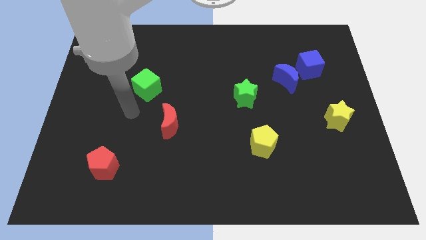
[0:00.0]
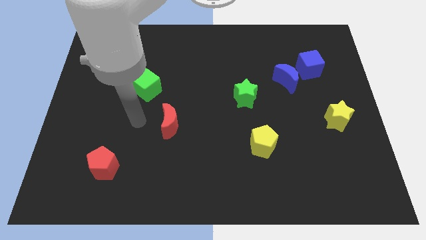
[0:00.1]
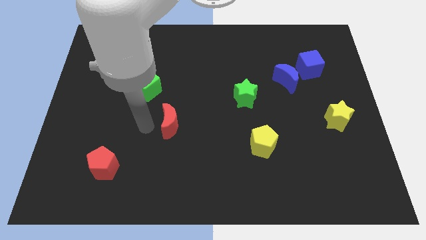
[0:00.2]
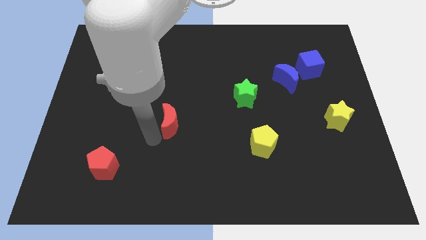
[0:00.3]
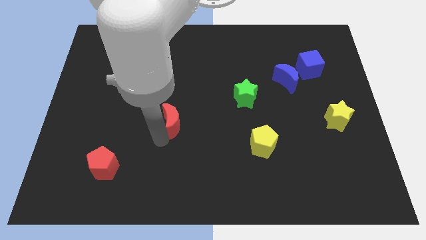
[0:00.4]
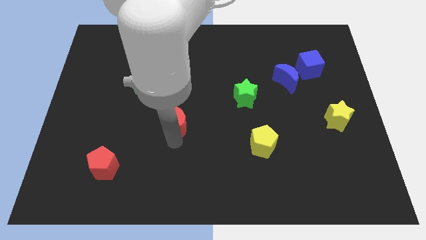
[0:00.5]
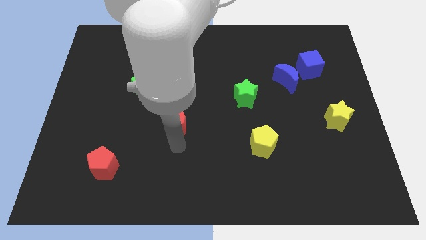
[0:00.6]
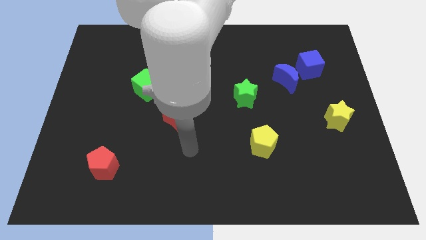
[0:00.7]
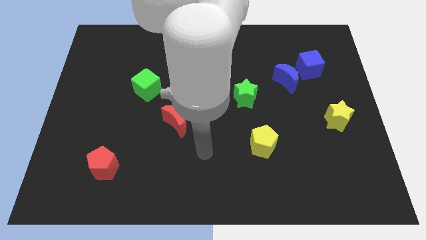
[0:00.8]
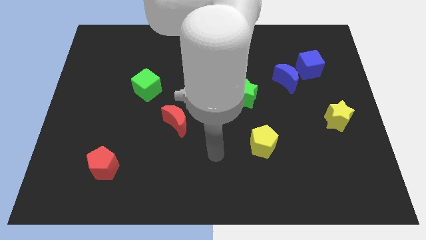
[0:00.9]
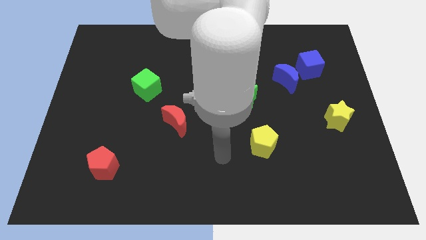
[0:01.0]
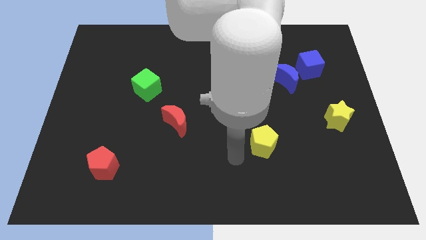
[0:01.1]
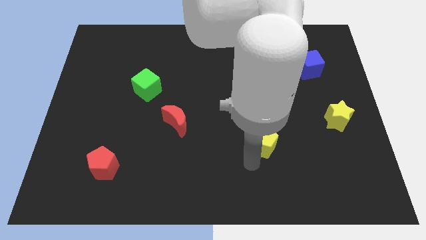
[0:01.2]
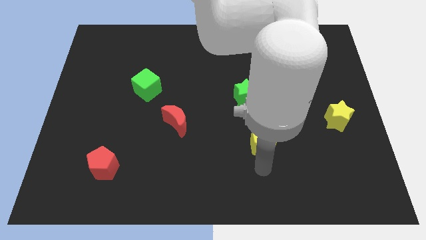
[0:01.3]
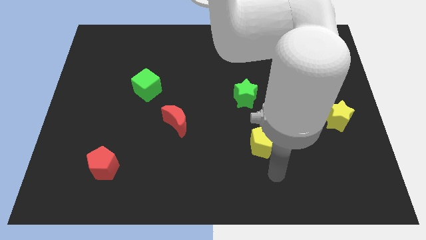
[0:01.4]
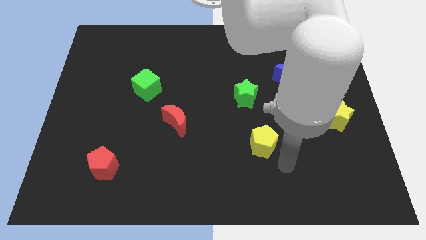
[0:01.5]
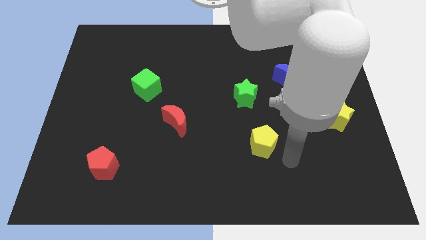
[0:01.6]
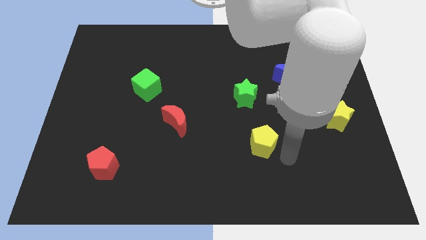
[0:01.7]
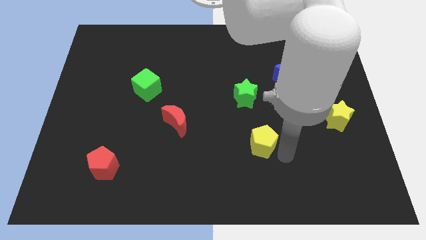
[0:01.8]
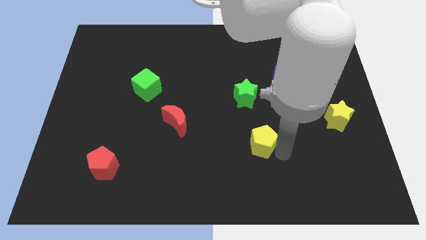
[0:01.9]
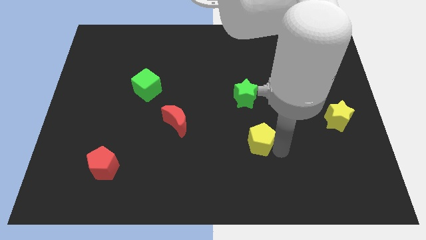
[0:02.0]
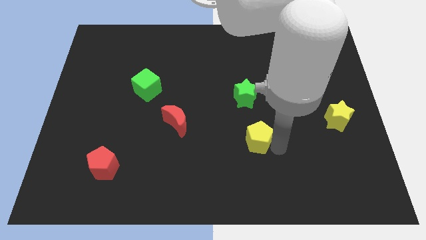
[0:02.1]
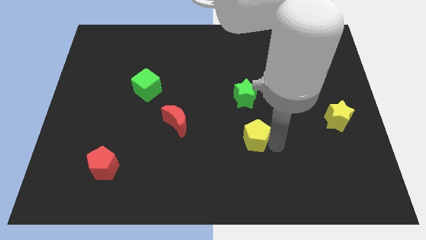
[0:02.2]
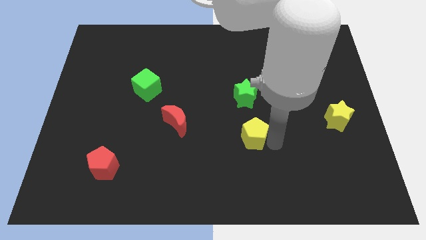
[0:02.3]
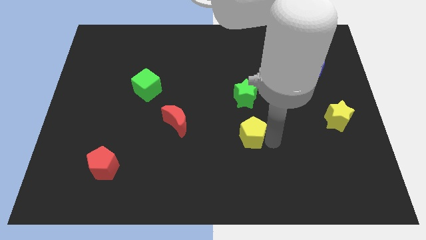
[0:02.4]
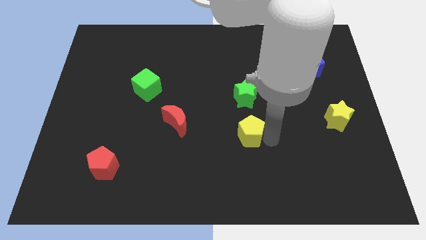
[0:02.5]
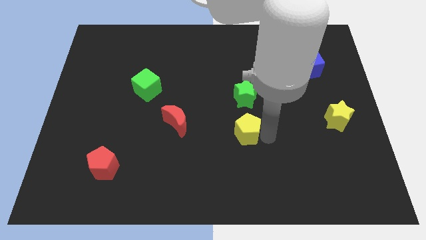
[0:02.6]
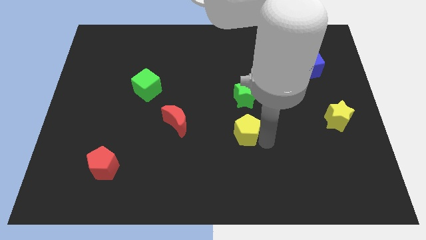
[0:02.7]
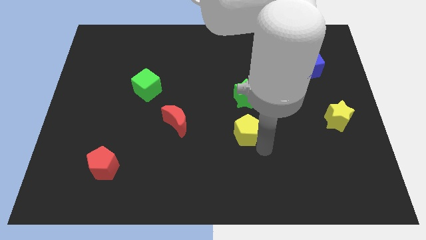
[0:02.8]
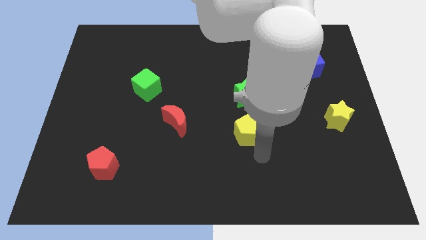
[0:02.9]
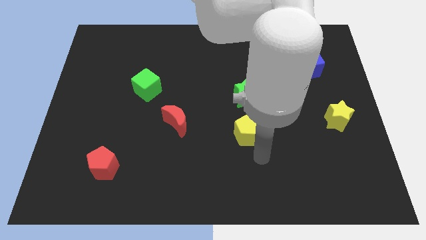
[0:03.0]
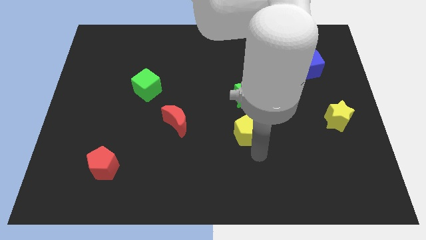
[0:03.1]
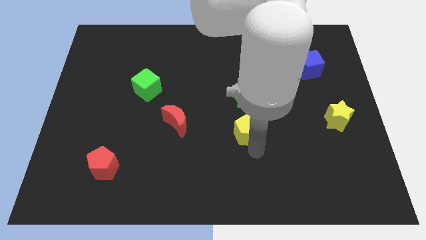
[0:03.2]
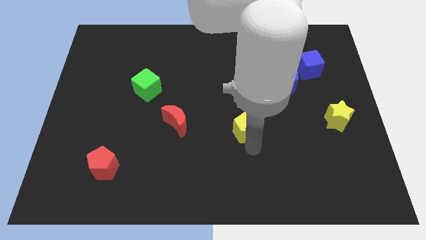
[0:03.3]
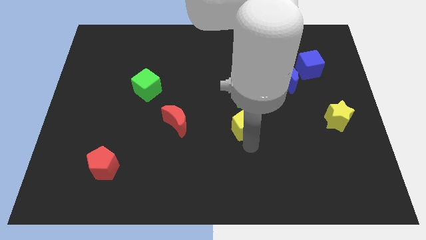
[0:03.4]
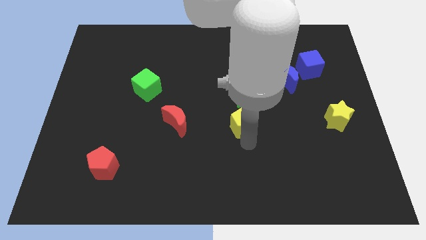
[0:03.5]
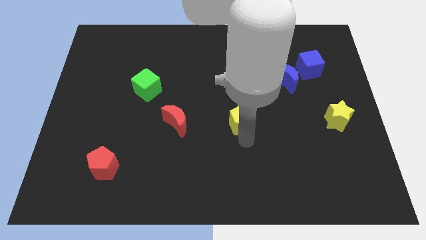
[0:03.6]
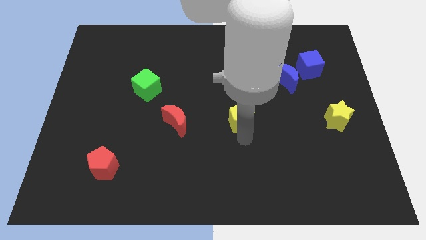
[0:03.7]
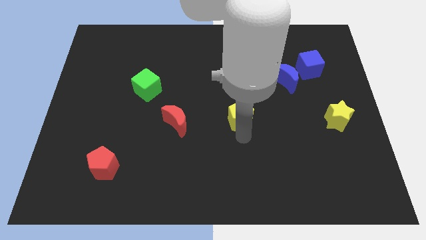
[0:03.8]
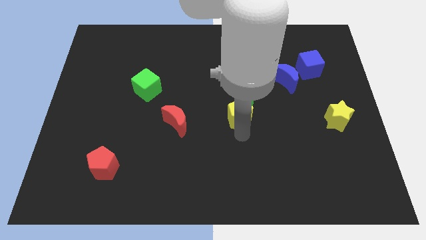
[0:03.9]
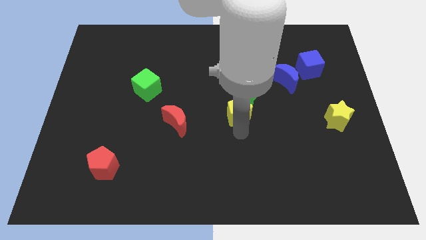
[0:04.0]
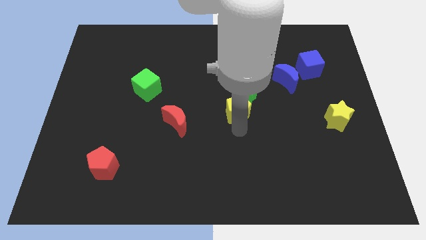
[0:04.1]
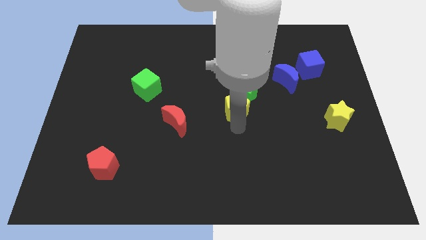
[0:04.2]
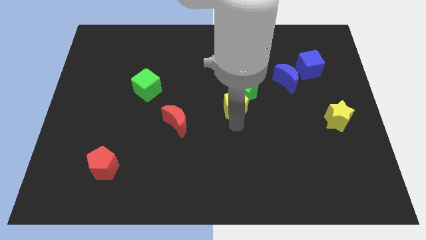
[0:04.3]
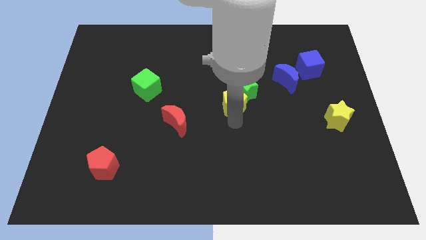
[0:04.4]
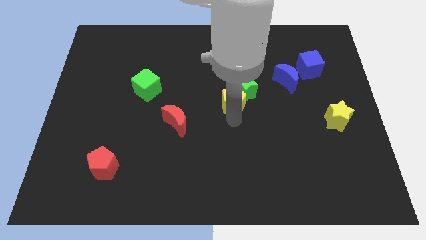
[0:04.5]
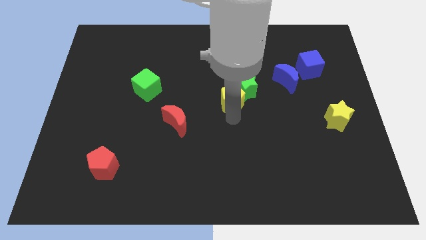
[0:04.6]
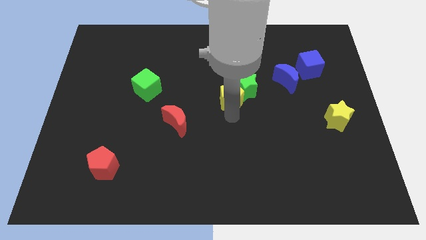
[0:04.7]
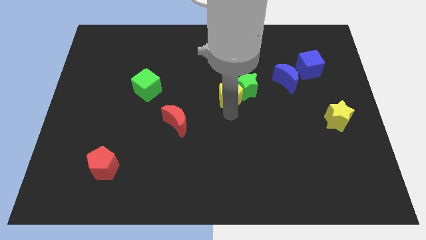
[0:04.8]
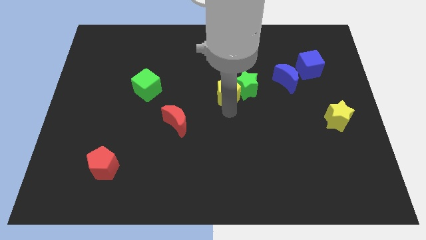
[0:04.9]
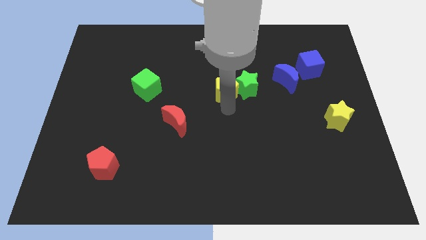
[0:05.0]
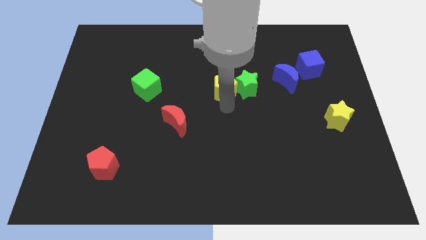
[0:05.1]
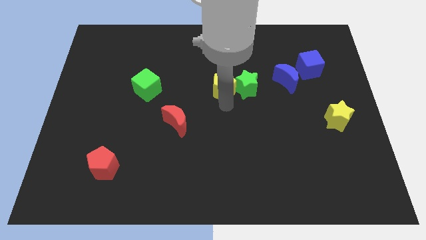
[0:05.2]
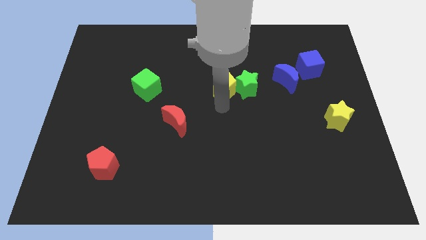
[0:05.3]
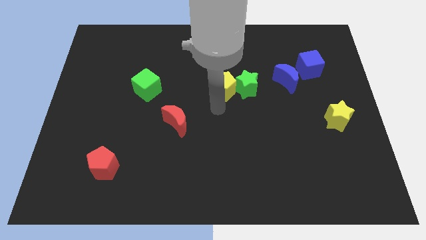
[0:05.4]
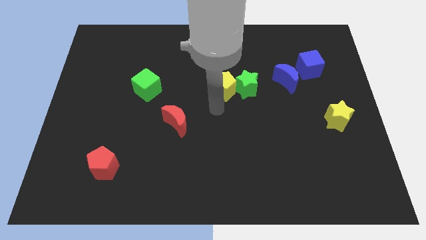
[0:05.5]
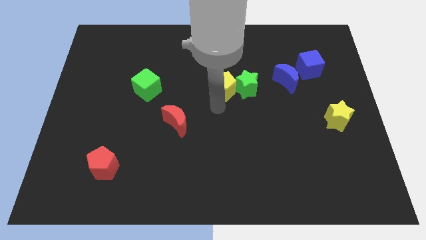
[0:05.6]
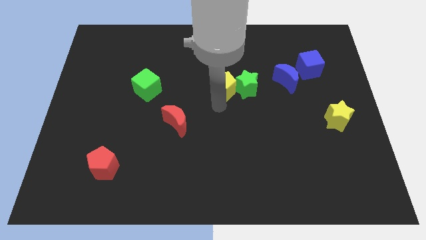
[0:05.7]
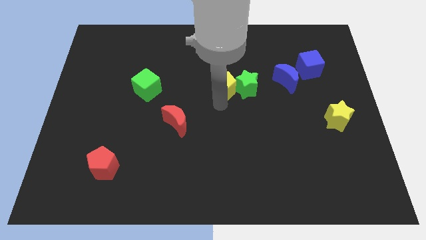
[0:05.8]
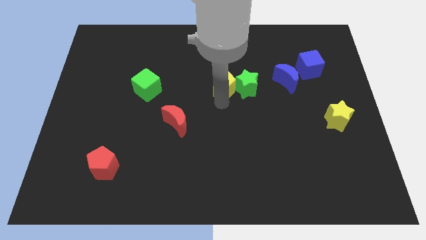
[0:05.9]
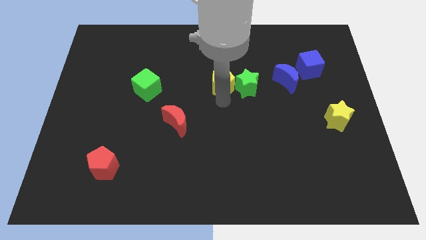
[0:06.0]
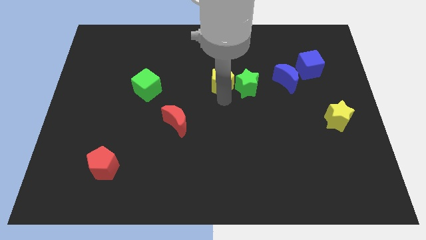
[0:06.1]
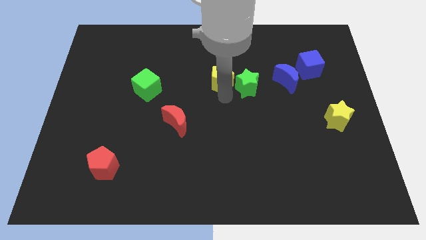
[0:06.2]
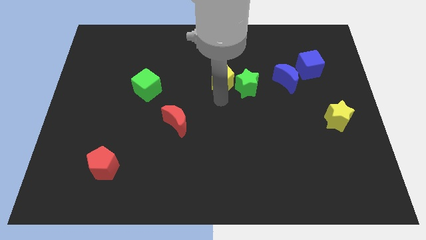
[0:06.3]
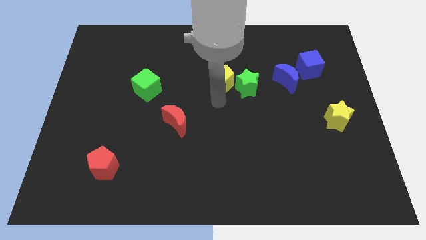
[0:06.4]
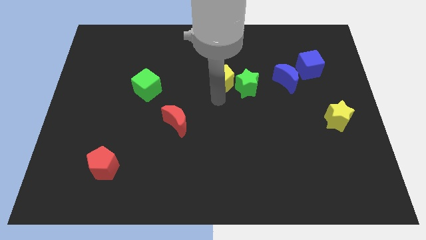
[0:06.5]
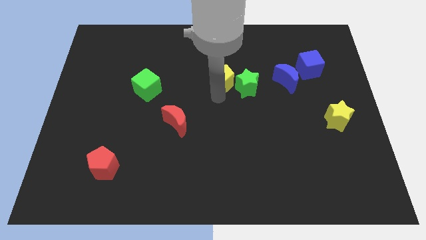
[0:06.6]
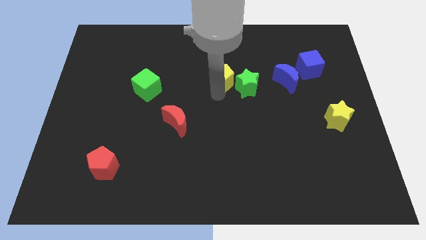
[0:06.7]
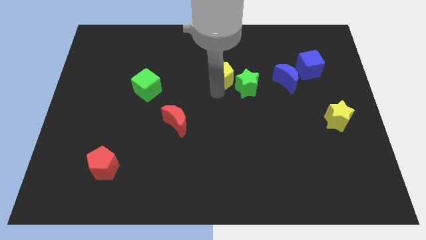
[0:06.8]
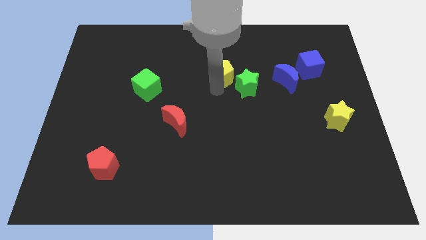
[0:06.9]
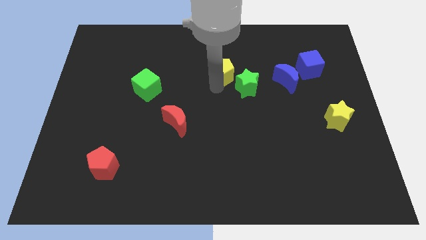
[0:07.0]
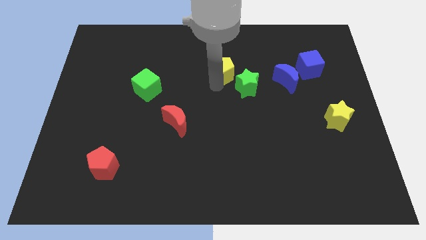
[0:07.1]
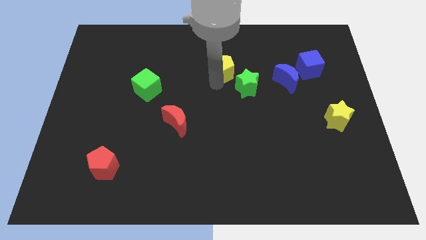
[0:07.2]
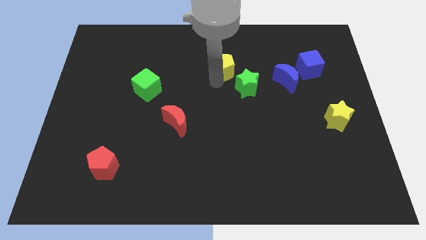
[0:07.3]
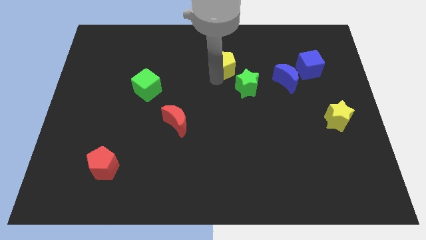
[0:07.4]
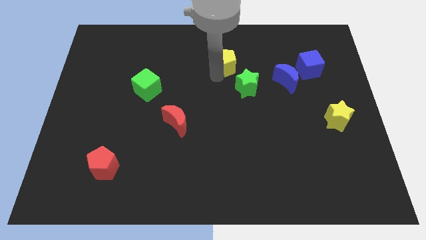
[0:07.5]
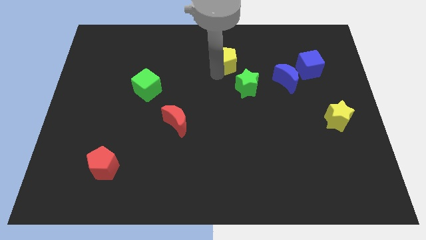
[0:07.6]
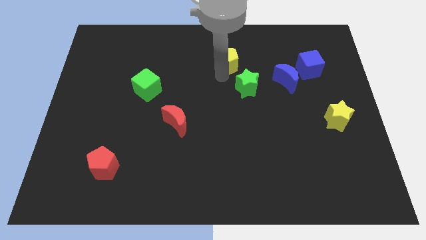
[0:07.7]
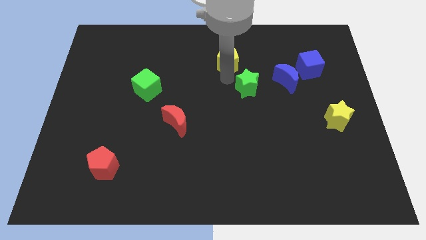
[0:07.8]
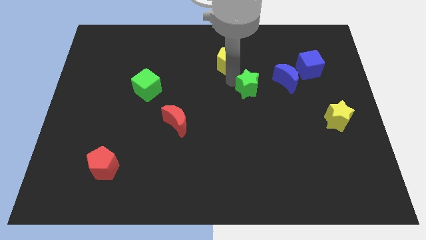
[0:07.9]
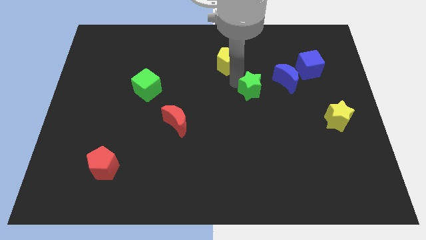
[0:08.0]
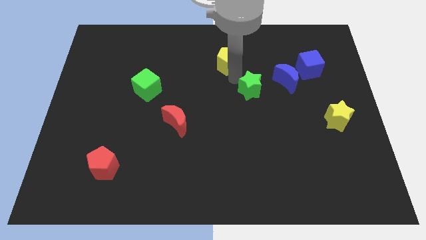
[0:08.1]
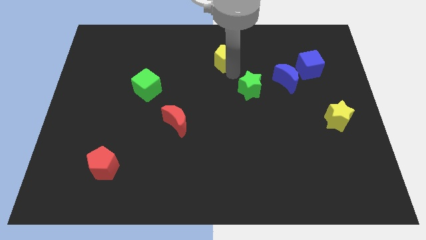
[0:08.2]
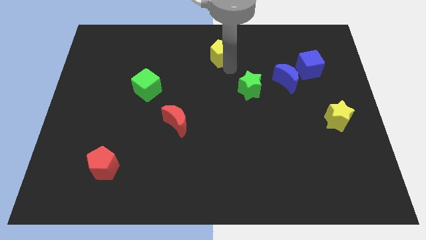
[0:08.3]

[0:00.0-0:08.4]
push the yellow pentagon to the top side
